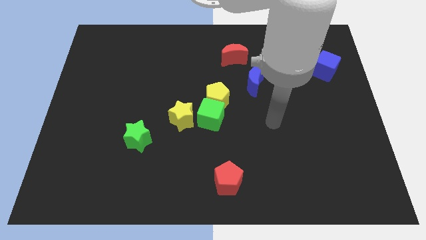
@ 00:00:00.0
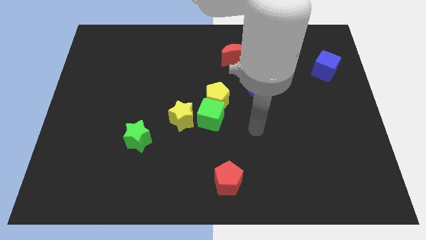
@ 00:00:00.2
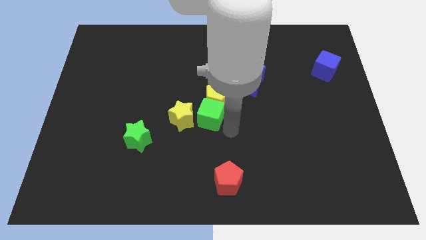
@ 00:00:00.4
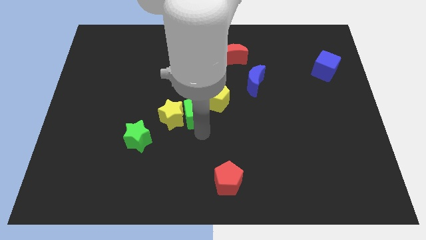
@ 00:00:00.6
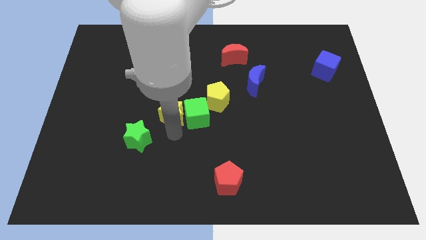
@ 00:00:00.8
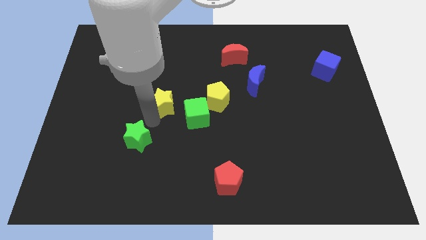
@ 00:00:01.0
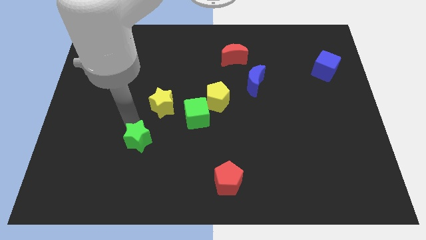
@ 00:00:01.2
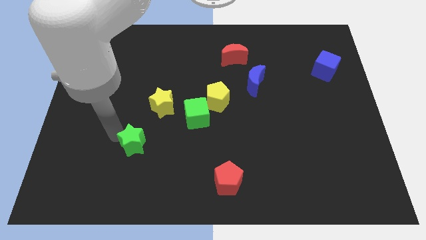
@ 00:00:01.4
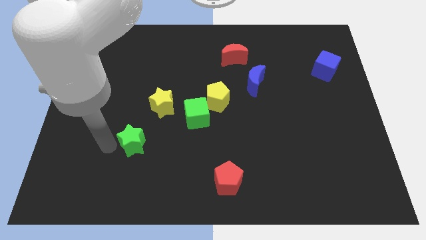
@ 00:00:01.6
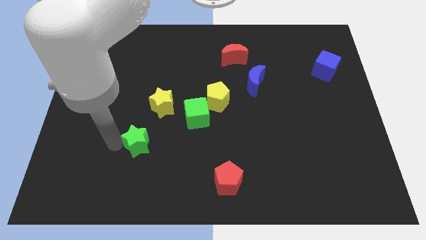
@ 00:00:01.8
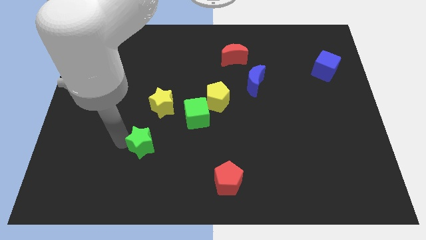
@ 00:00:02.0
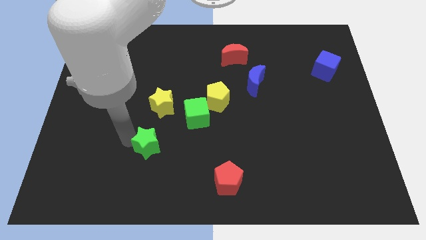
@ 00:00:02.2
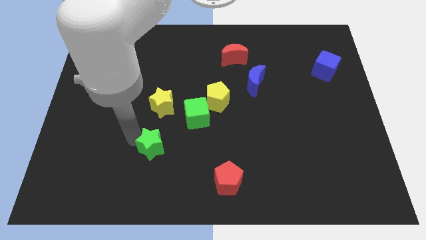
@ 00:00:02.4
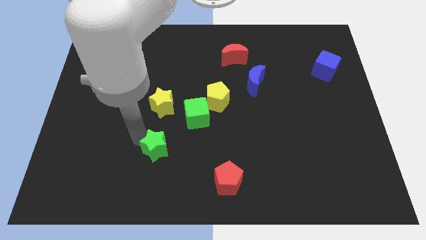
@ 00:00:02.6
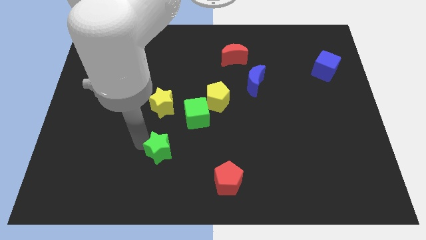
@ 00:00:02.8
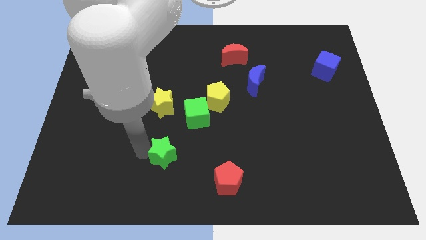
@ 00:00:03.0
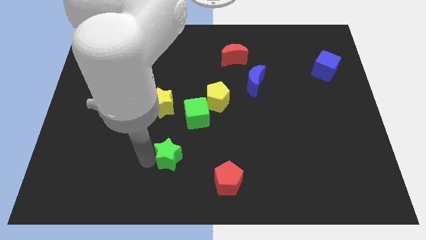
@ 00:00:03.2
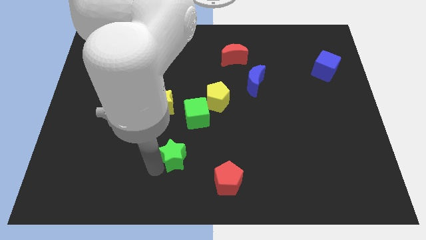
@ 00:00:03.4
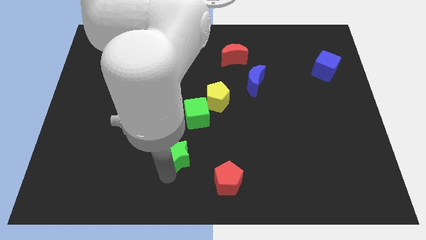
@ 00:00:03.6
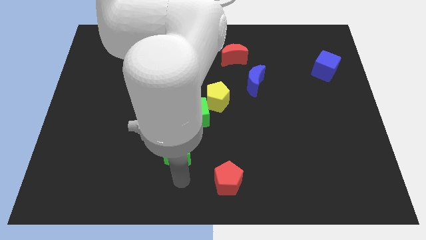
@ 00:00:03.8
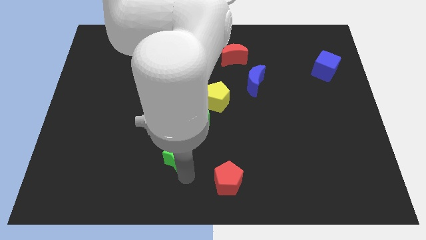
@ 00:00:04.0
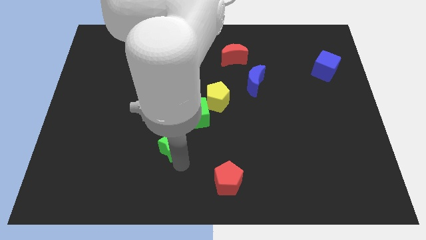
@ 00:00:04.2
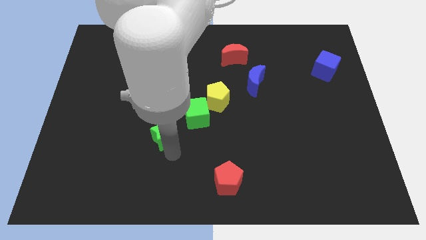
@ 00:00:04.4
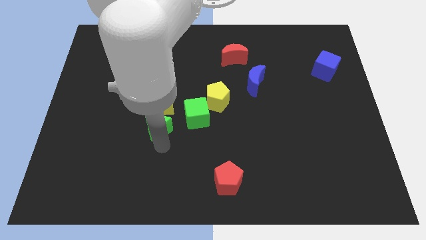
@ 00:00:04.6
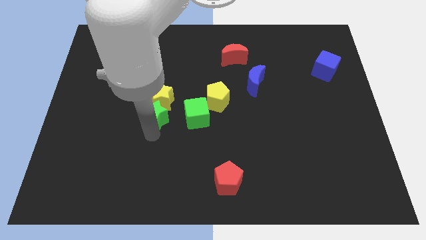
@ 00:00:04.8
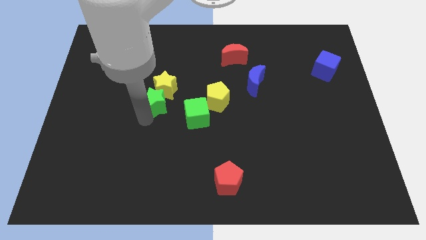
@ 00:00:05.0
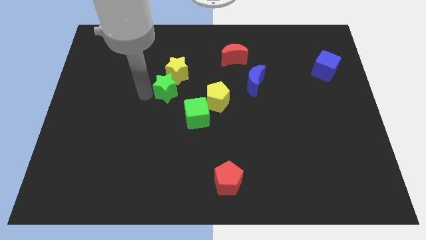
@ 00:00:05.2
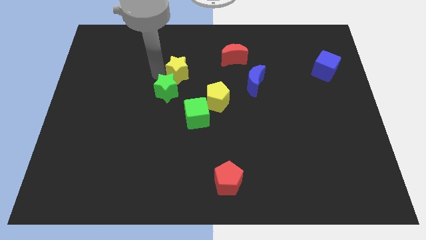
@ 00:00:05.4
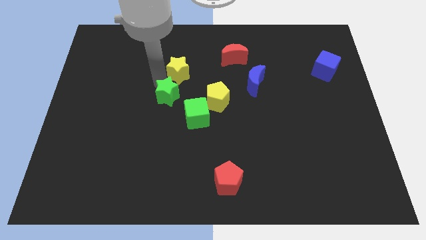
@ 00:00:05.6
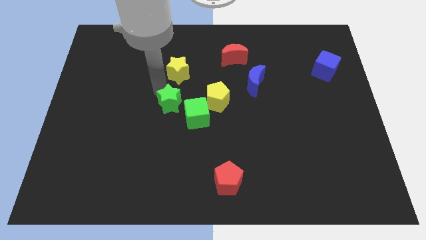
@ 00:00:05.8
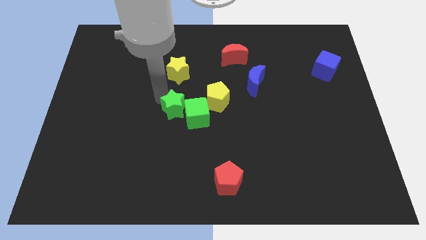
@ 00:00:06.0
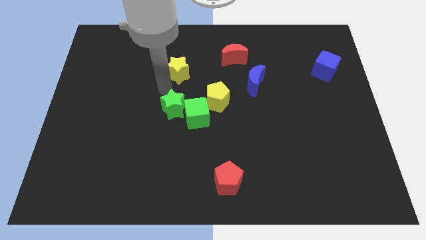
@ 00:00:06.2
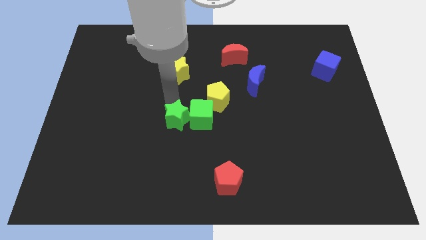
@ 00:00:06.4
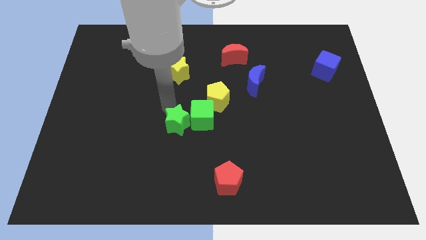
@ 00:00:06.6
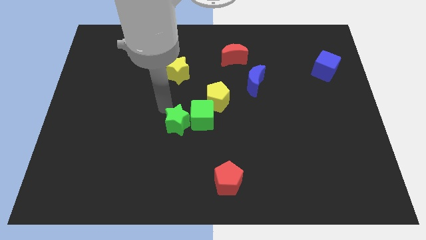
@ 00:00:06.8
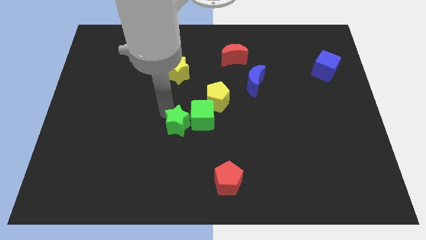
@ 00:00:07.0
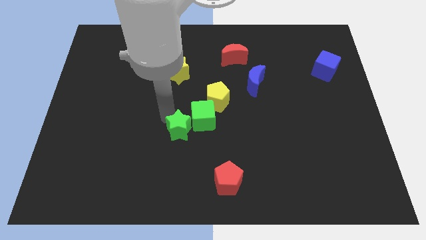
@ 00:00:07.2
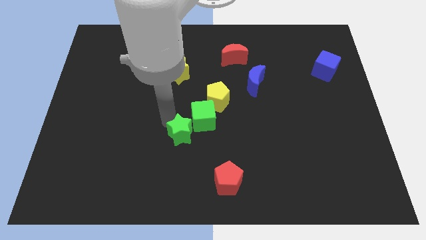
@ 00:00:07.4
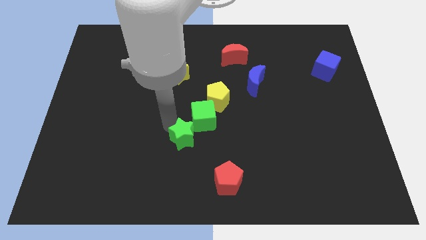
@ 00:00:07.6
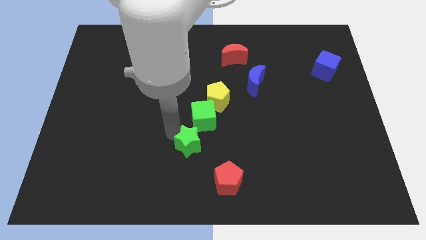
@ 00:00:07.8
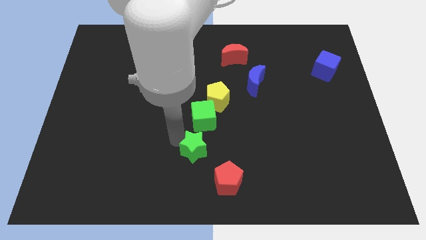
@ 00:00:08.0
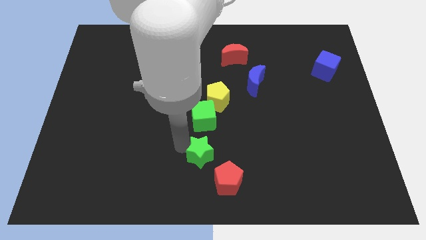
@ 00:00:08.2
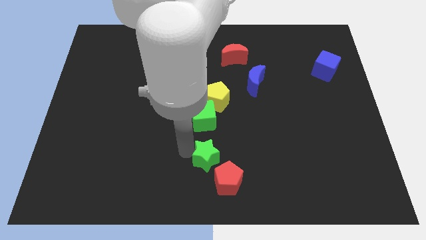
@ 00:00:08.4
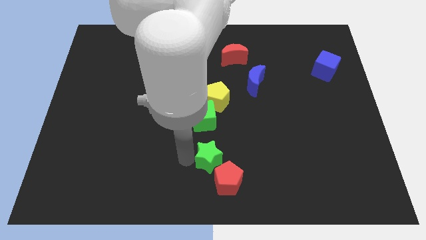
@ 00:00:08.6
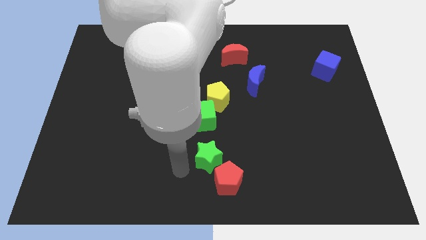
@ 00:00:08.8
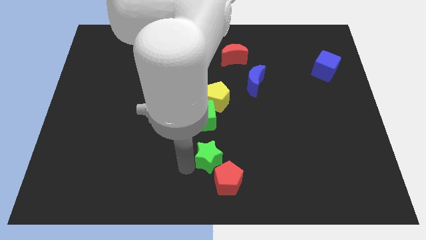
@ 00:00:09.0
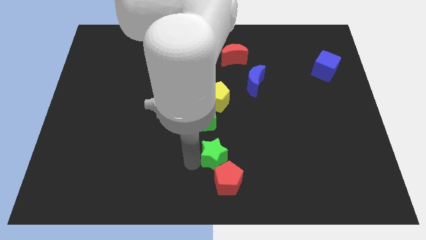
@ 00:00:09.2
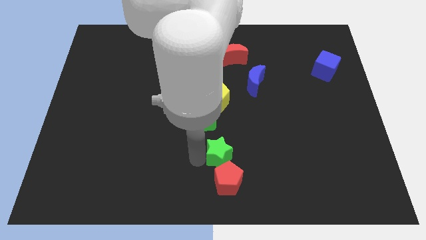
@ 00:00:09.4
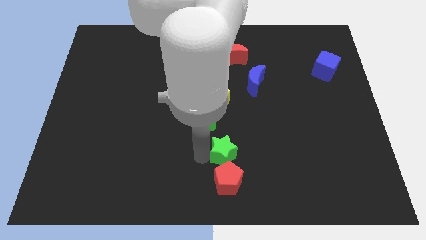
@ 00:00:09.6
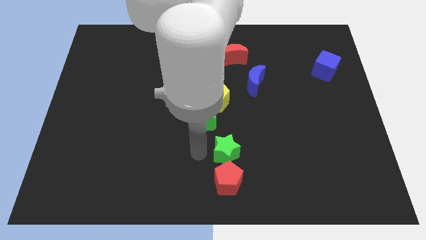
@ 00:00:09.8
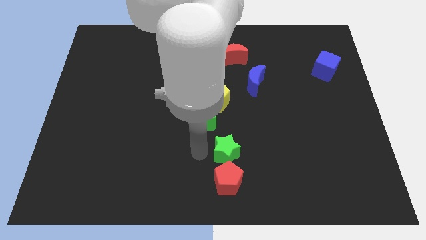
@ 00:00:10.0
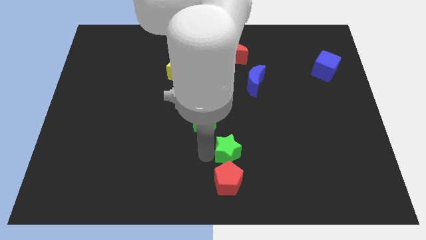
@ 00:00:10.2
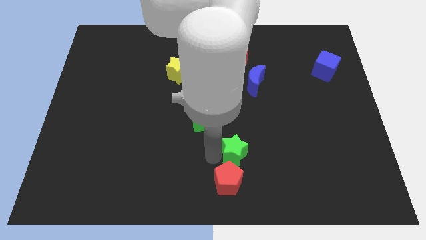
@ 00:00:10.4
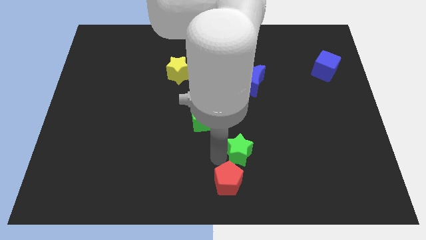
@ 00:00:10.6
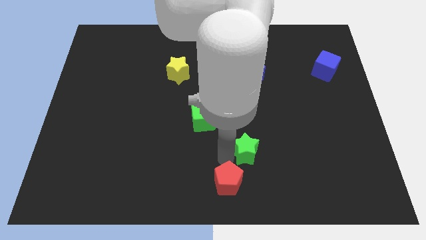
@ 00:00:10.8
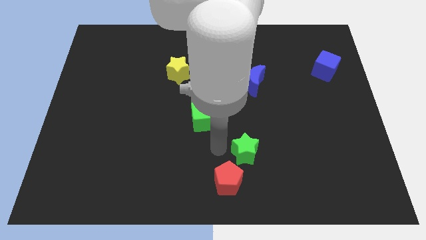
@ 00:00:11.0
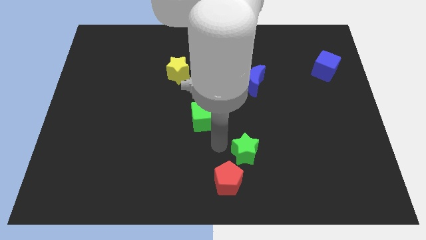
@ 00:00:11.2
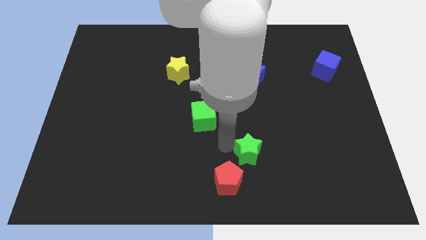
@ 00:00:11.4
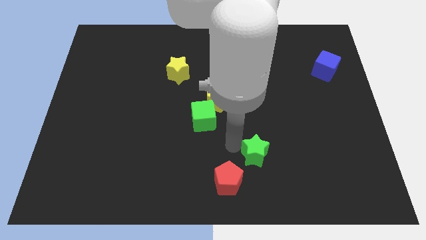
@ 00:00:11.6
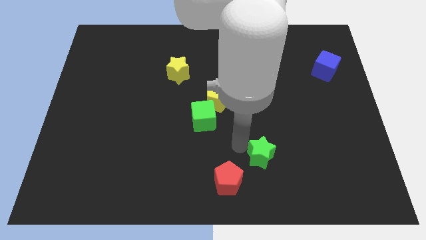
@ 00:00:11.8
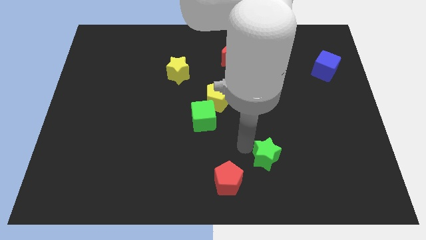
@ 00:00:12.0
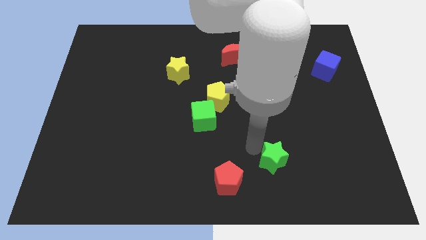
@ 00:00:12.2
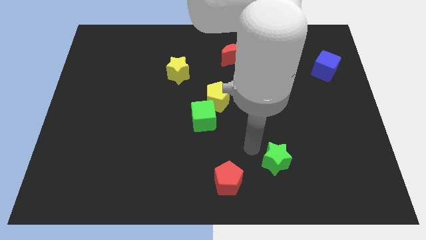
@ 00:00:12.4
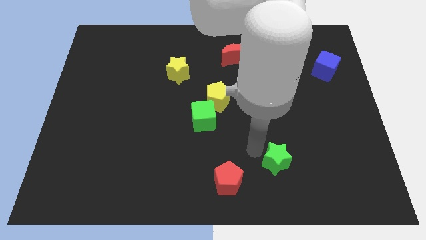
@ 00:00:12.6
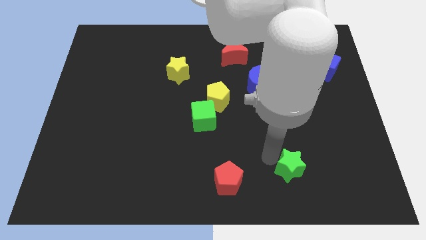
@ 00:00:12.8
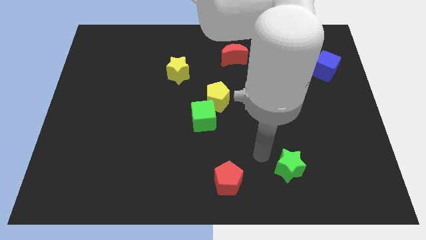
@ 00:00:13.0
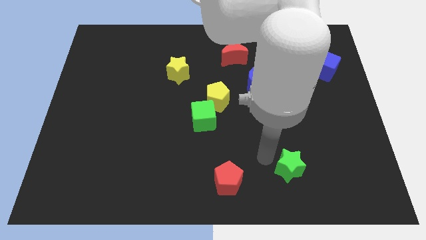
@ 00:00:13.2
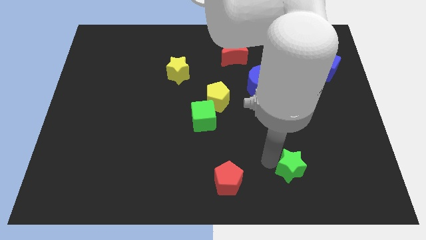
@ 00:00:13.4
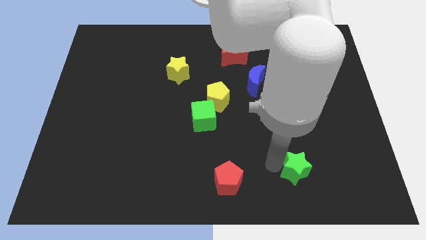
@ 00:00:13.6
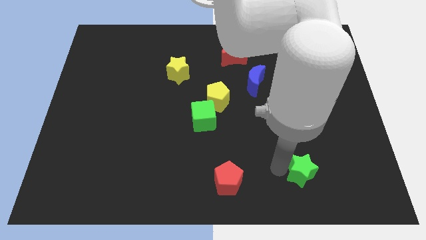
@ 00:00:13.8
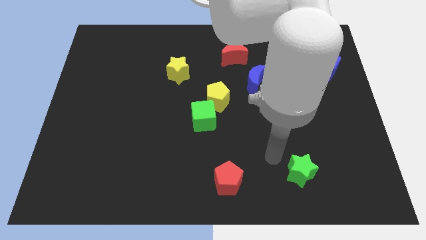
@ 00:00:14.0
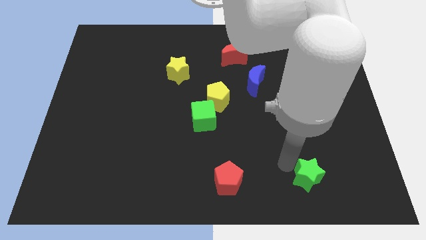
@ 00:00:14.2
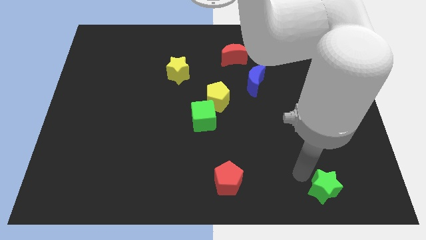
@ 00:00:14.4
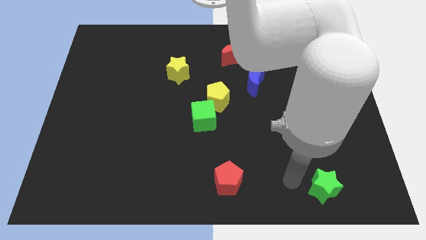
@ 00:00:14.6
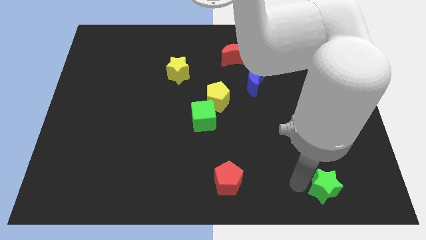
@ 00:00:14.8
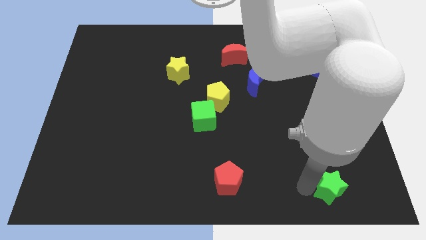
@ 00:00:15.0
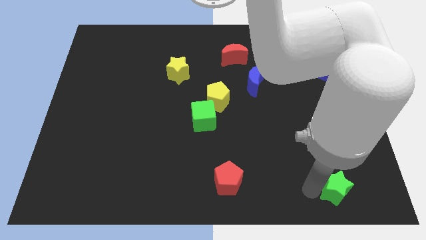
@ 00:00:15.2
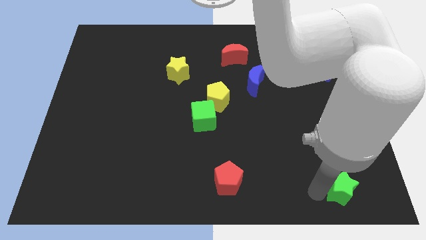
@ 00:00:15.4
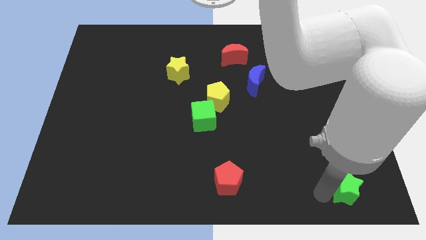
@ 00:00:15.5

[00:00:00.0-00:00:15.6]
put the green star to the bottom right corner
